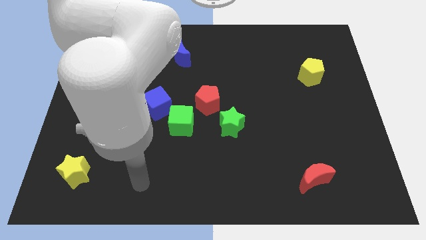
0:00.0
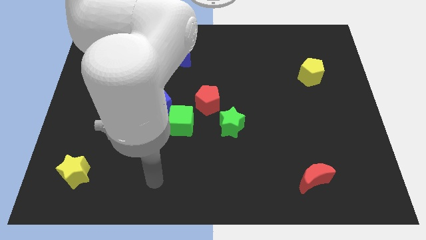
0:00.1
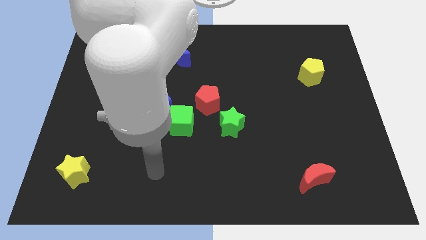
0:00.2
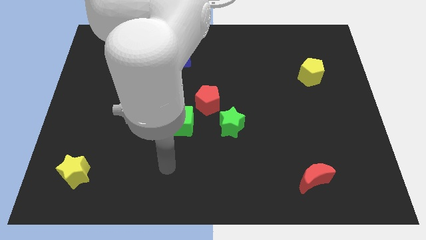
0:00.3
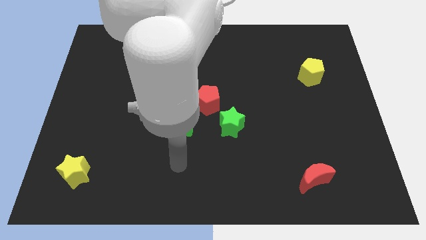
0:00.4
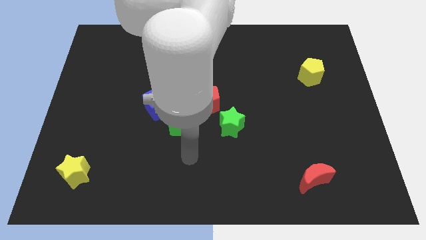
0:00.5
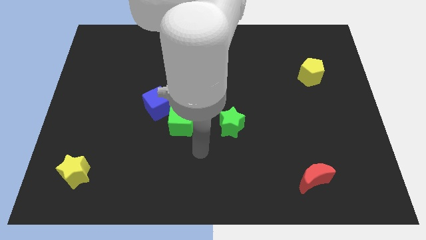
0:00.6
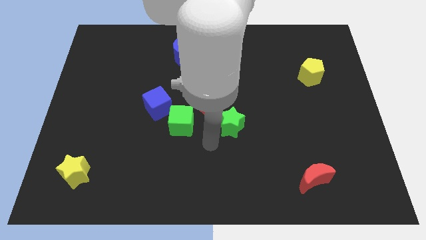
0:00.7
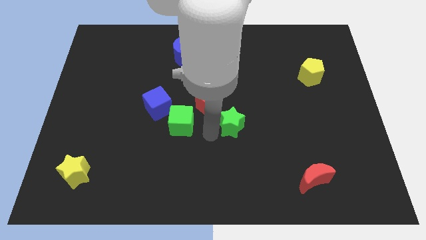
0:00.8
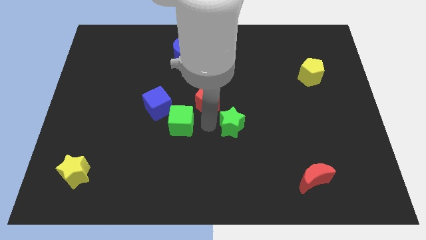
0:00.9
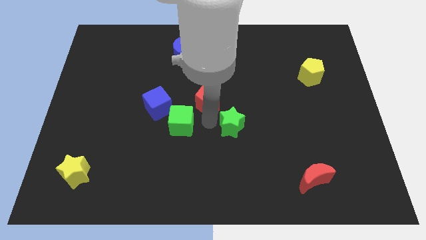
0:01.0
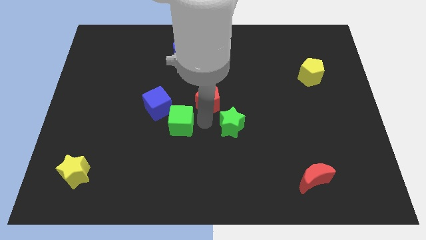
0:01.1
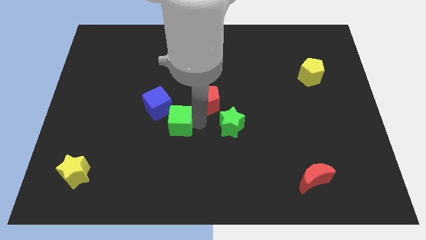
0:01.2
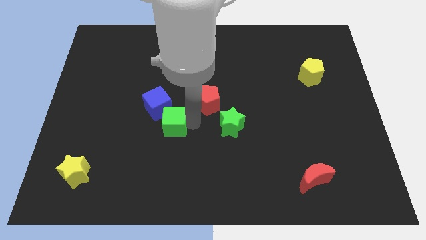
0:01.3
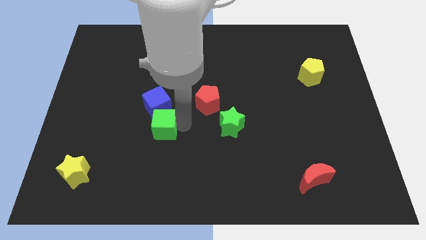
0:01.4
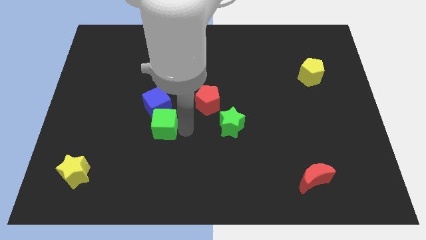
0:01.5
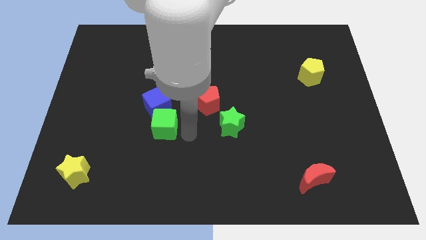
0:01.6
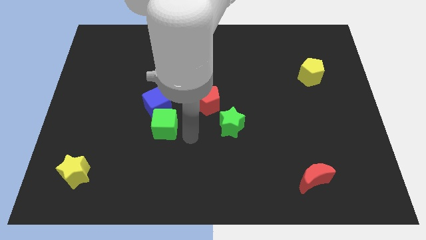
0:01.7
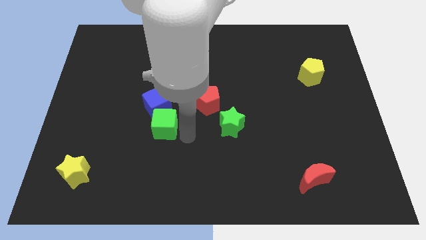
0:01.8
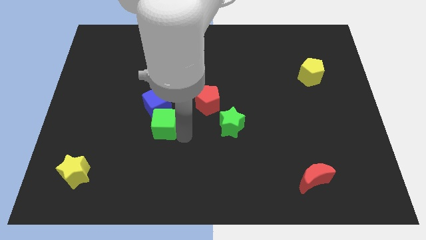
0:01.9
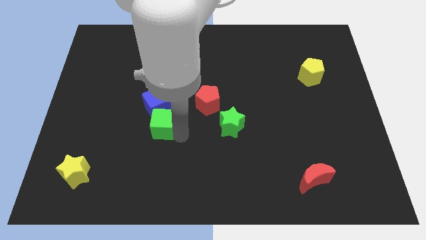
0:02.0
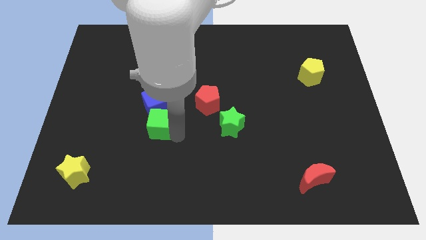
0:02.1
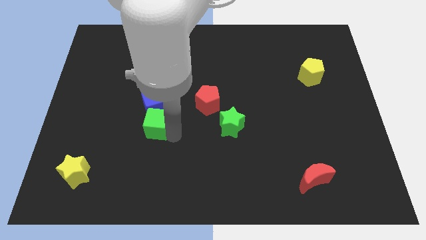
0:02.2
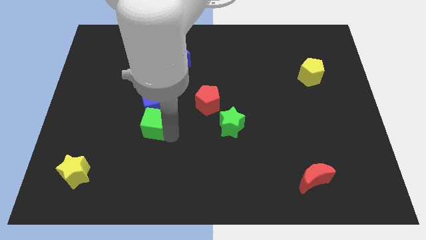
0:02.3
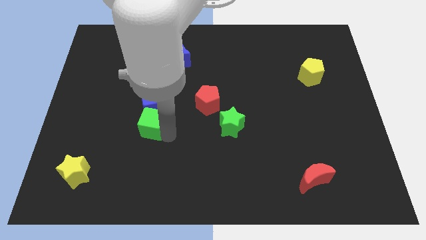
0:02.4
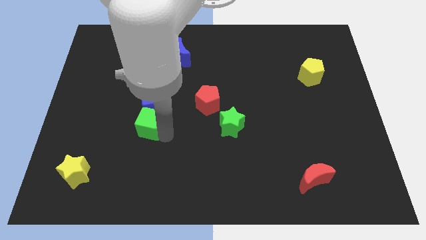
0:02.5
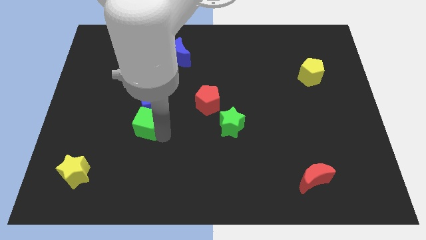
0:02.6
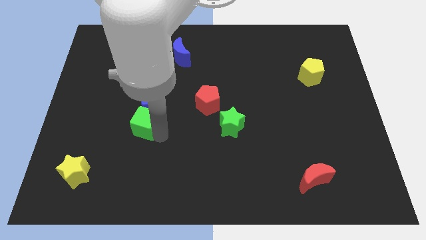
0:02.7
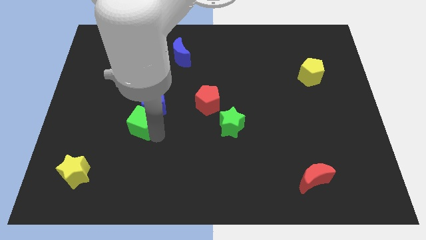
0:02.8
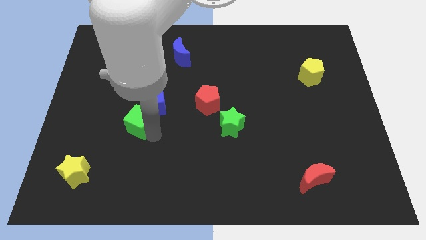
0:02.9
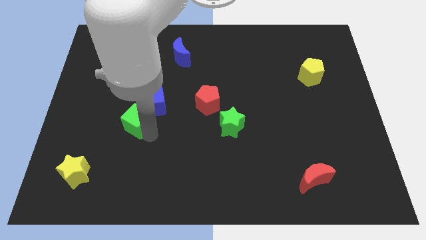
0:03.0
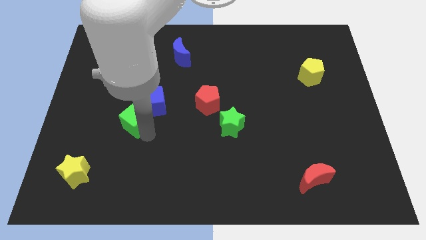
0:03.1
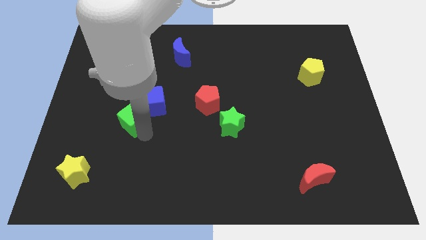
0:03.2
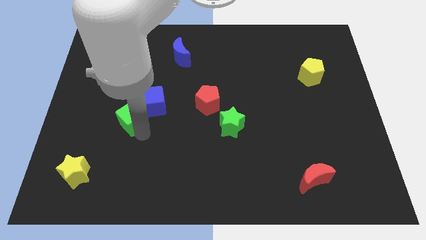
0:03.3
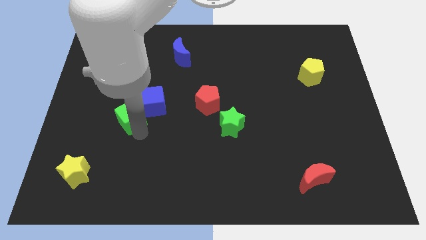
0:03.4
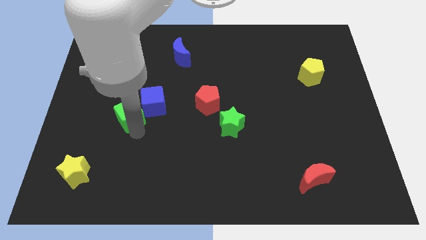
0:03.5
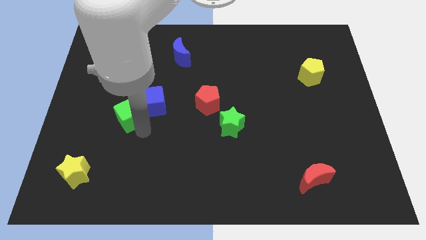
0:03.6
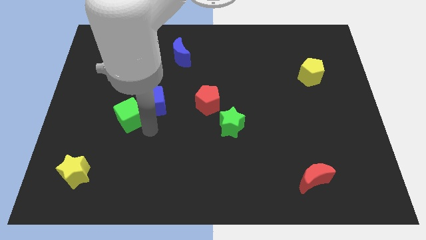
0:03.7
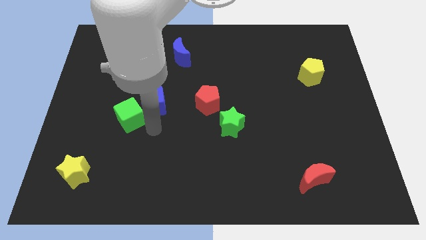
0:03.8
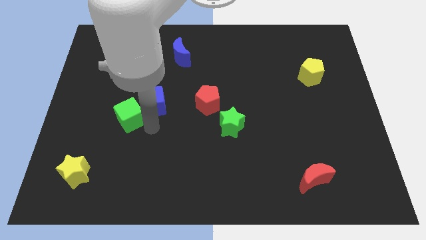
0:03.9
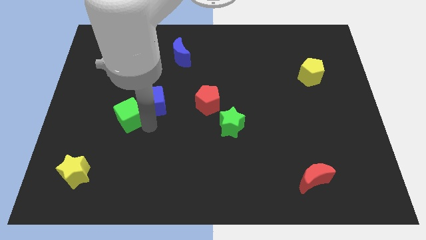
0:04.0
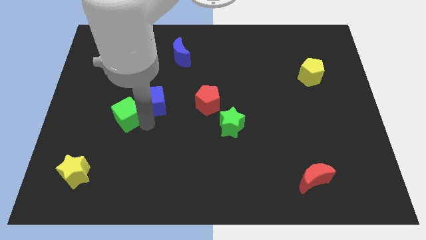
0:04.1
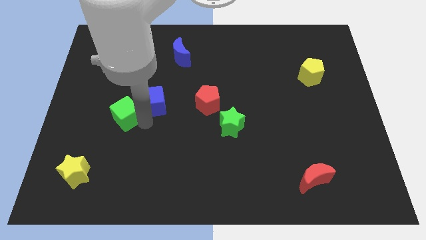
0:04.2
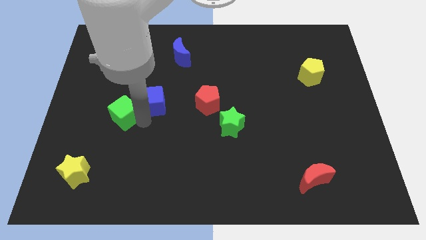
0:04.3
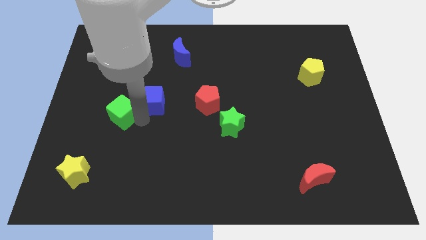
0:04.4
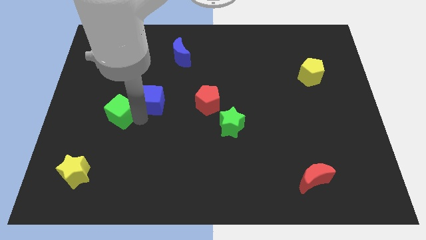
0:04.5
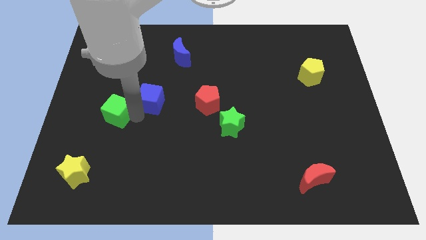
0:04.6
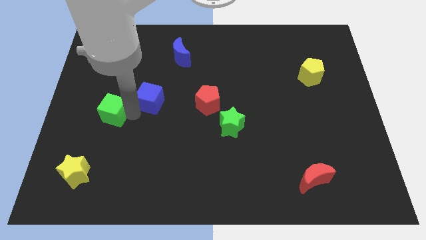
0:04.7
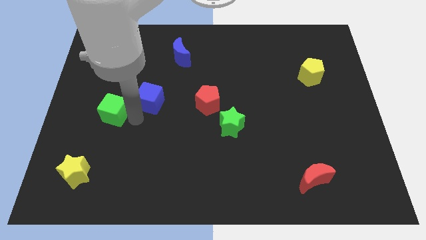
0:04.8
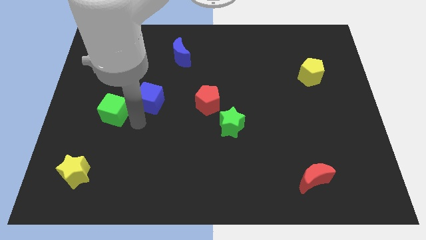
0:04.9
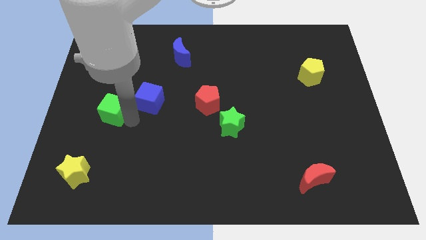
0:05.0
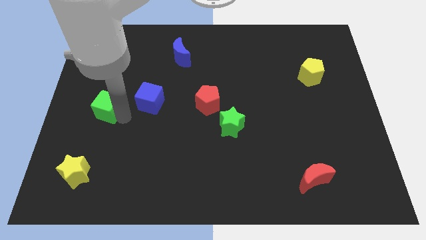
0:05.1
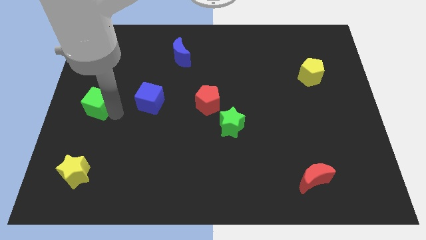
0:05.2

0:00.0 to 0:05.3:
slide the green cube to the center left
